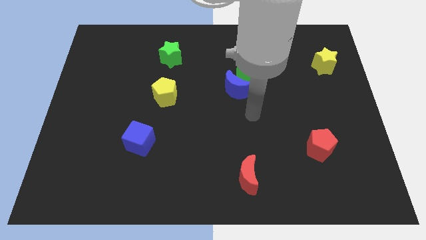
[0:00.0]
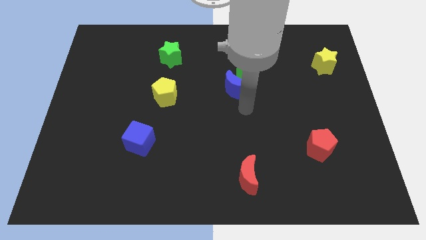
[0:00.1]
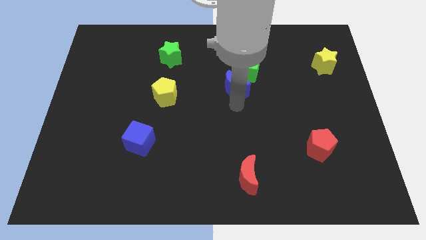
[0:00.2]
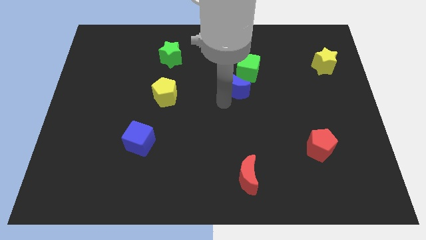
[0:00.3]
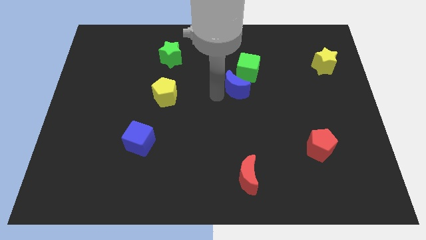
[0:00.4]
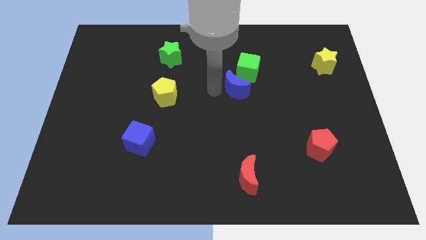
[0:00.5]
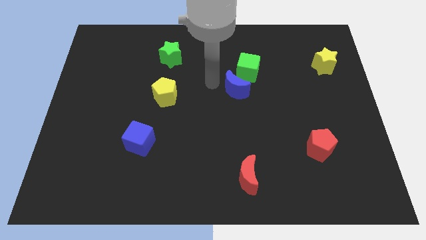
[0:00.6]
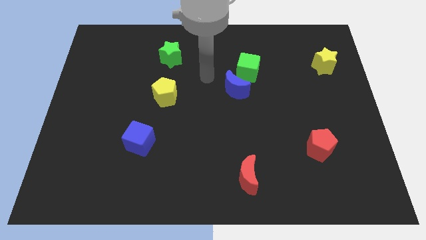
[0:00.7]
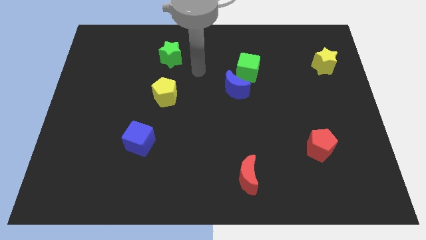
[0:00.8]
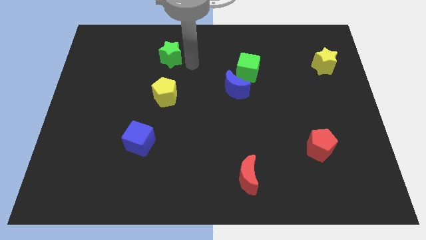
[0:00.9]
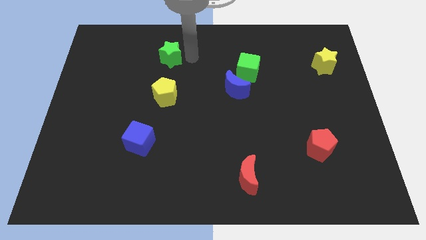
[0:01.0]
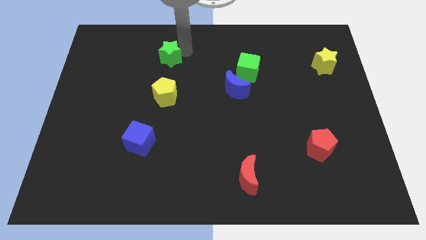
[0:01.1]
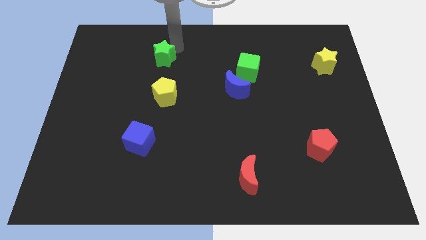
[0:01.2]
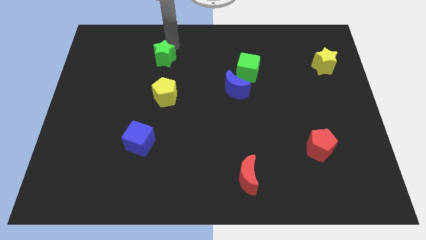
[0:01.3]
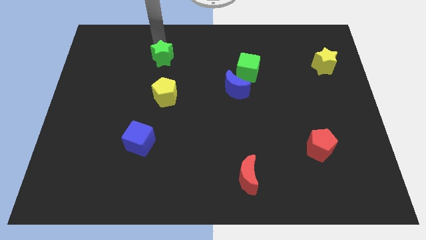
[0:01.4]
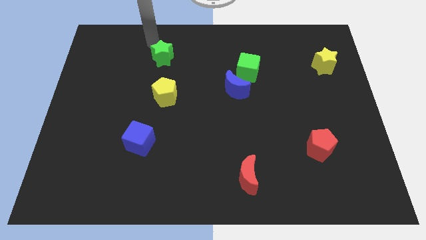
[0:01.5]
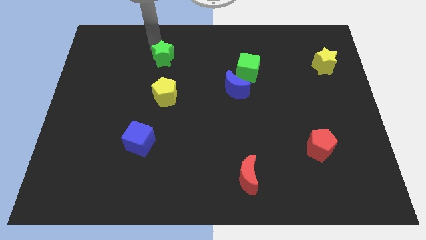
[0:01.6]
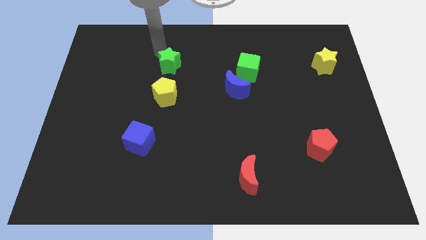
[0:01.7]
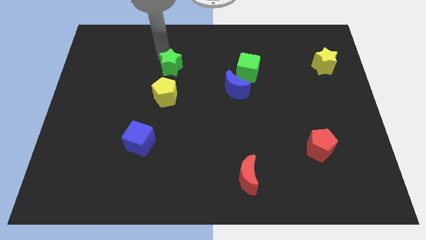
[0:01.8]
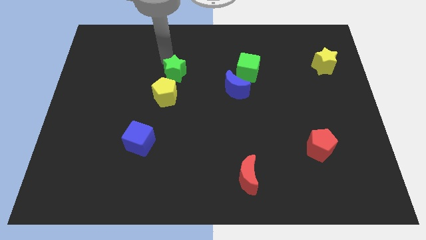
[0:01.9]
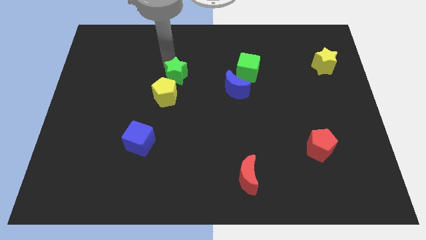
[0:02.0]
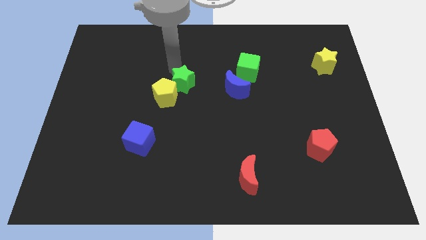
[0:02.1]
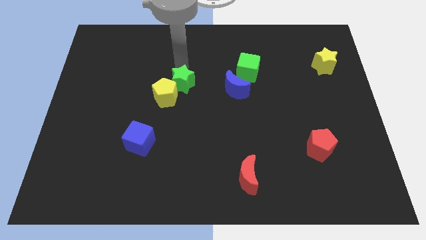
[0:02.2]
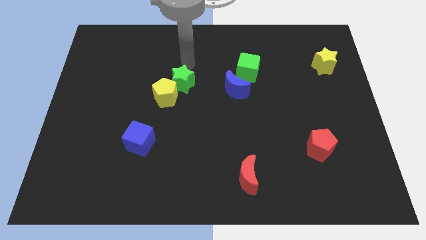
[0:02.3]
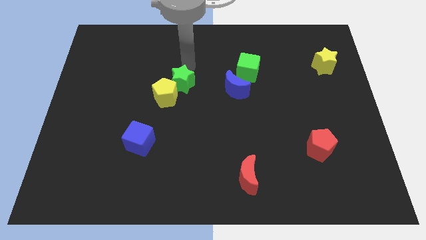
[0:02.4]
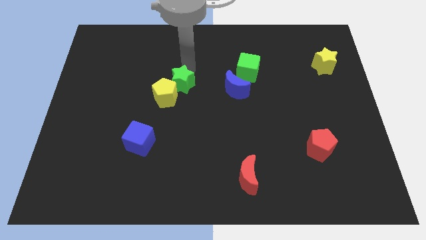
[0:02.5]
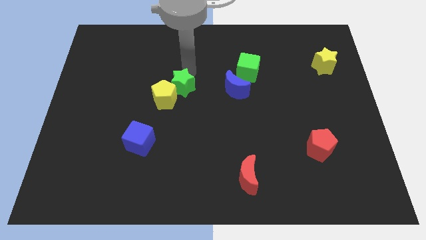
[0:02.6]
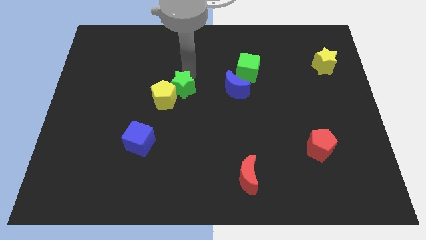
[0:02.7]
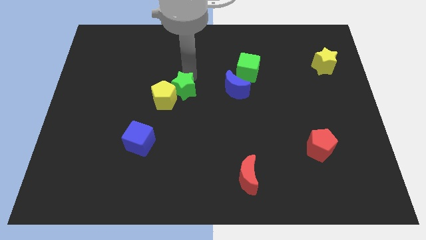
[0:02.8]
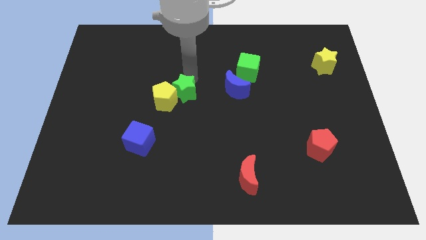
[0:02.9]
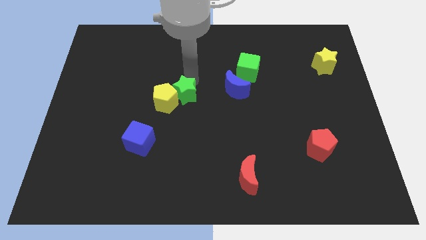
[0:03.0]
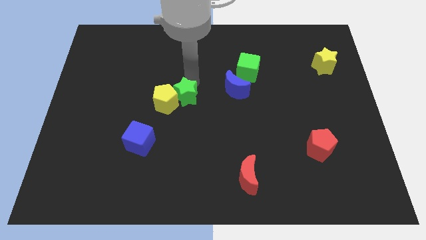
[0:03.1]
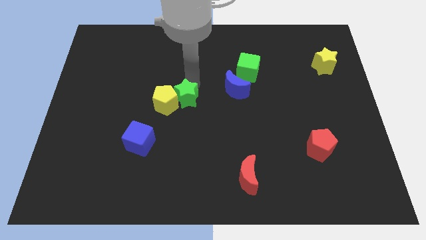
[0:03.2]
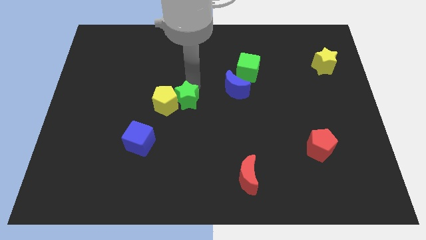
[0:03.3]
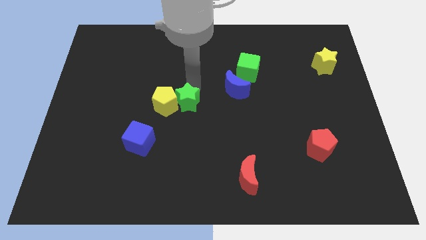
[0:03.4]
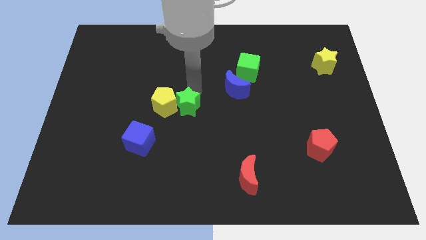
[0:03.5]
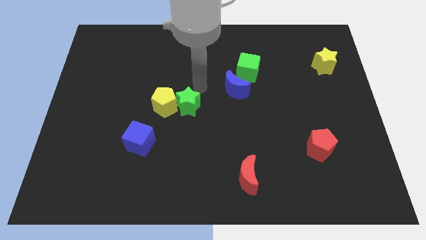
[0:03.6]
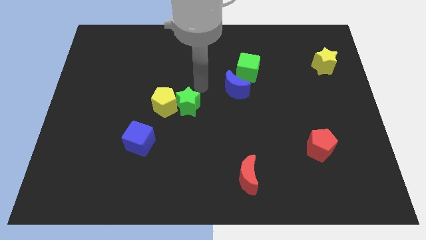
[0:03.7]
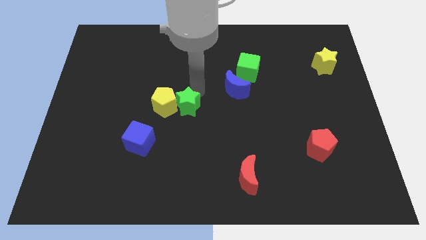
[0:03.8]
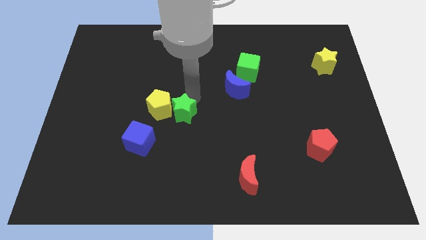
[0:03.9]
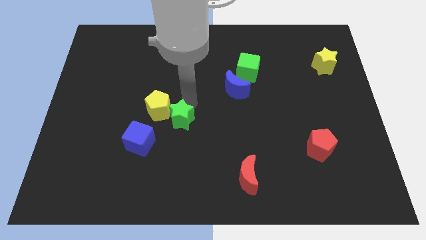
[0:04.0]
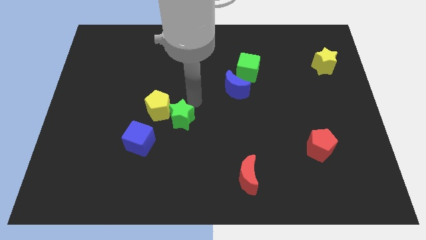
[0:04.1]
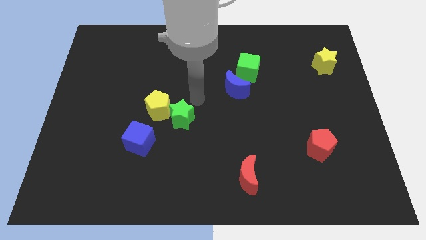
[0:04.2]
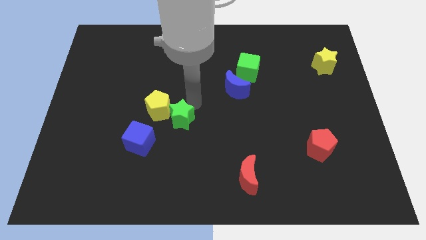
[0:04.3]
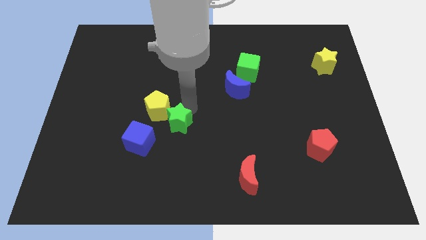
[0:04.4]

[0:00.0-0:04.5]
move the green star down

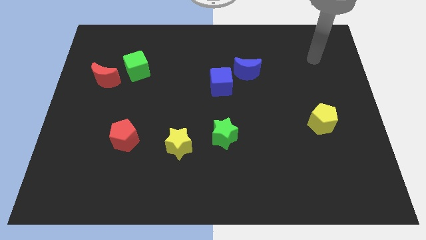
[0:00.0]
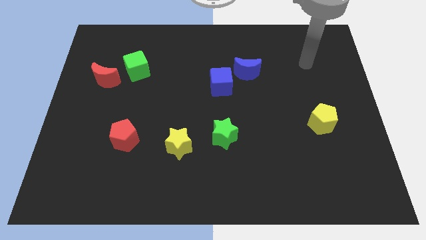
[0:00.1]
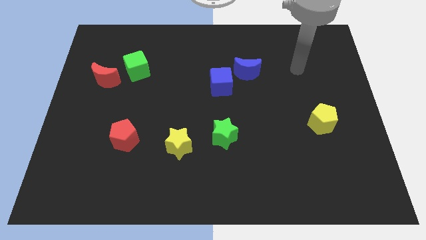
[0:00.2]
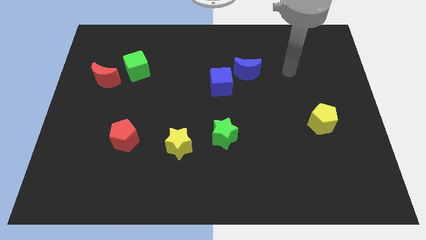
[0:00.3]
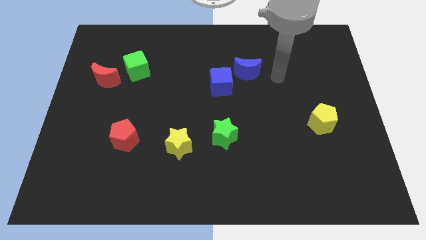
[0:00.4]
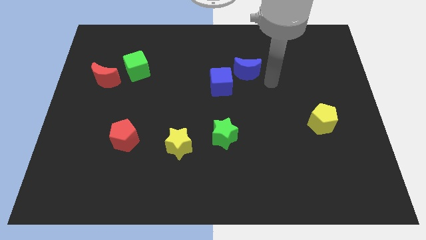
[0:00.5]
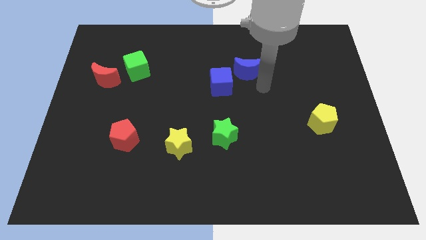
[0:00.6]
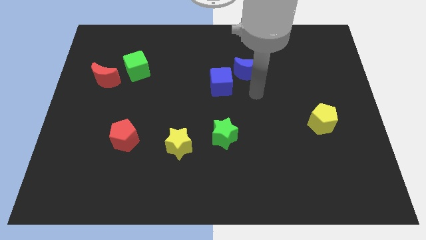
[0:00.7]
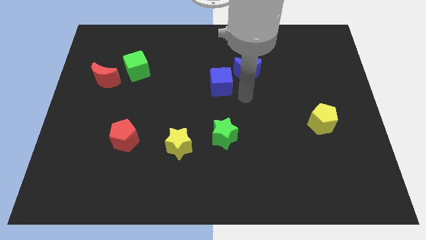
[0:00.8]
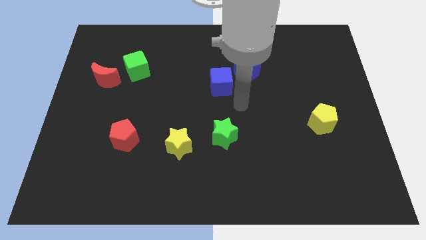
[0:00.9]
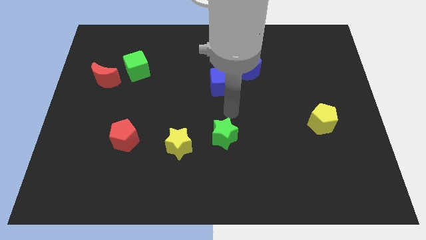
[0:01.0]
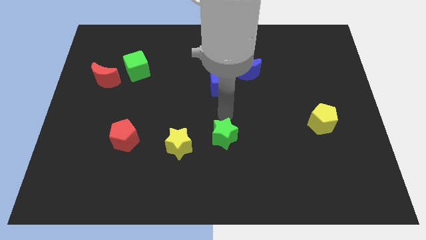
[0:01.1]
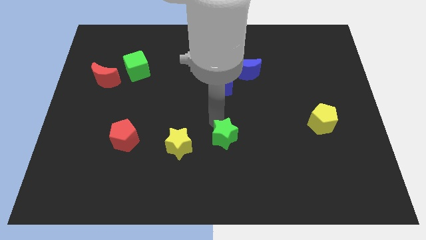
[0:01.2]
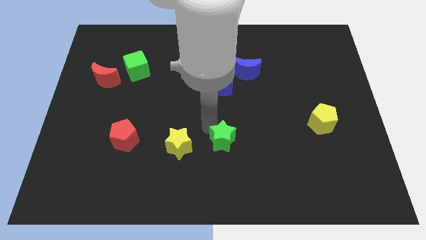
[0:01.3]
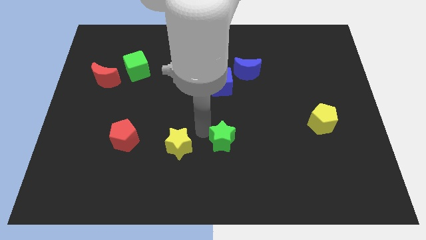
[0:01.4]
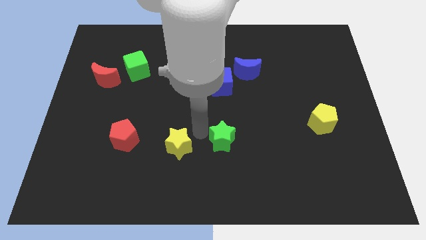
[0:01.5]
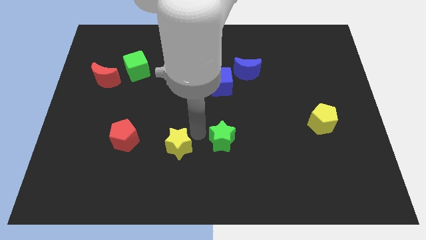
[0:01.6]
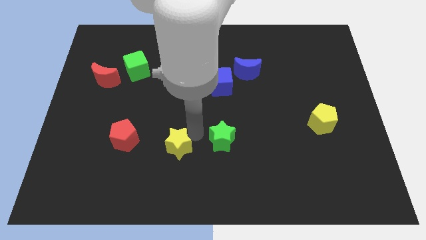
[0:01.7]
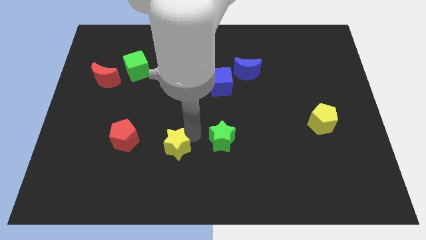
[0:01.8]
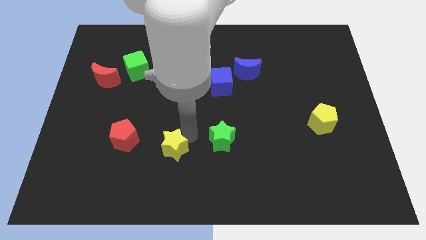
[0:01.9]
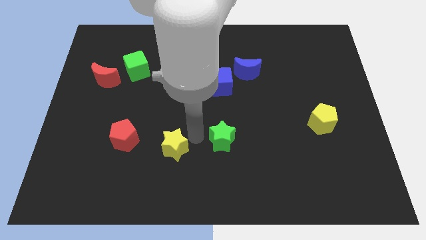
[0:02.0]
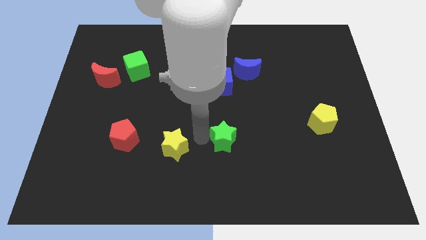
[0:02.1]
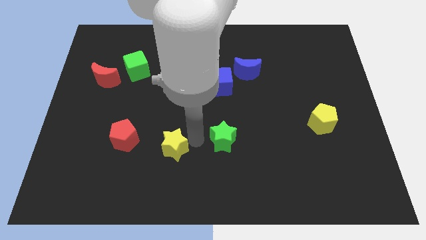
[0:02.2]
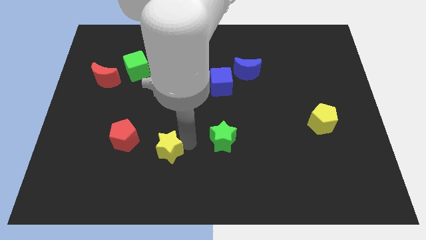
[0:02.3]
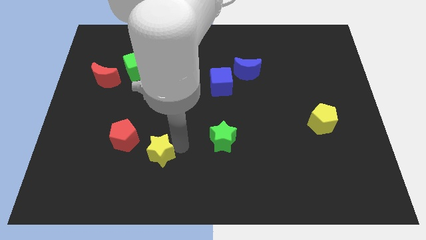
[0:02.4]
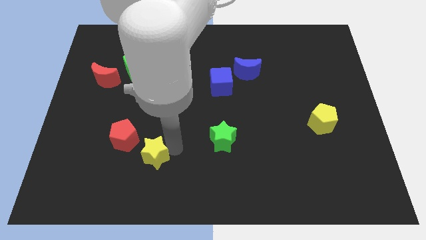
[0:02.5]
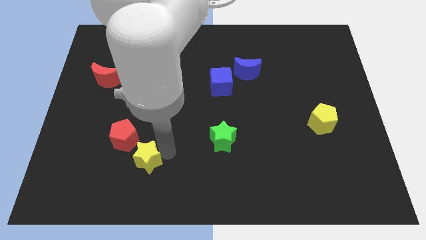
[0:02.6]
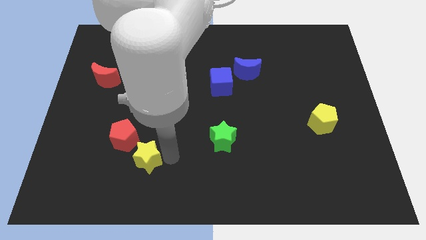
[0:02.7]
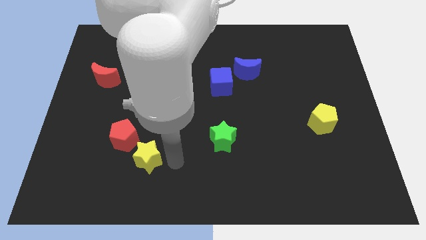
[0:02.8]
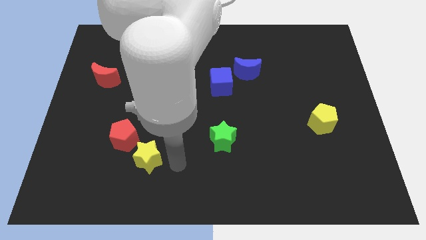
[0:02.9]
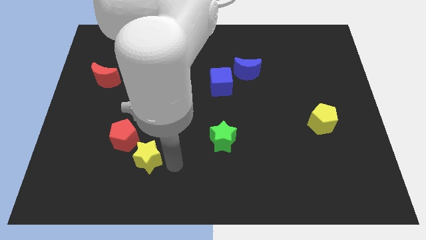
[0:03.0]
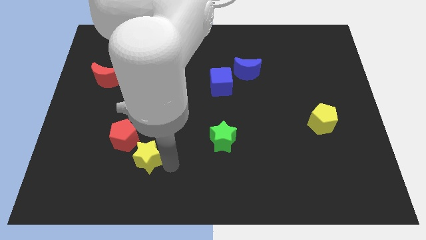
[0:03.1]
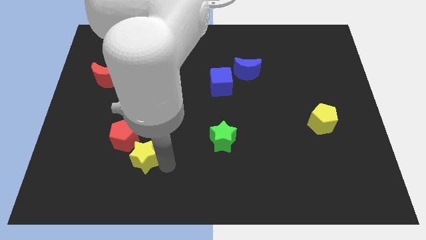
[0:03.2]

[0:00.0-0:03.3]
push the yellow star left a bit
